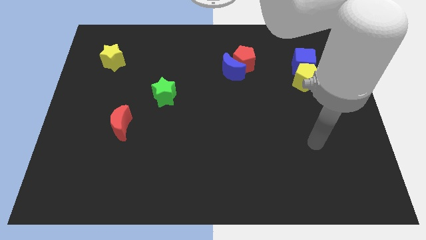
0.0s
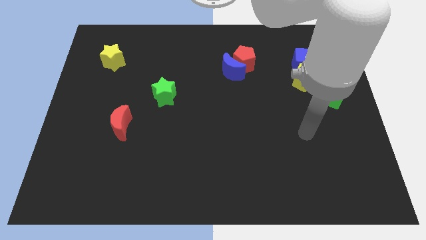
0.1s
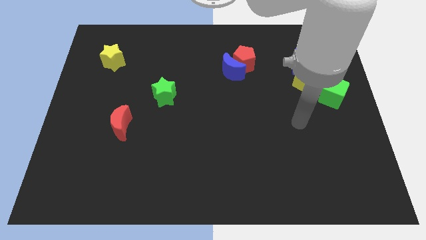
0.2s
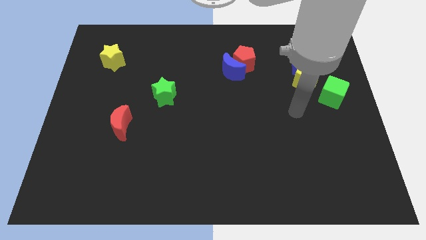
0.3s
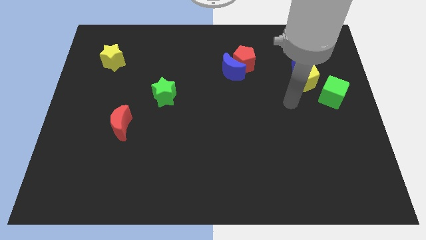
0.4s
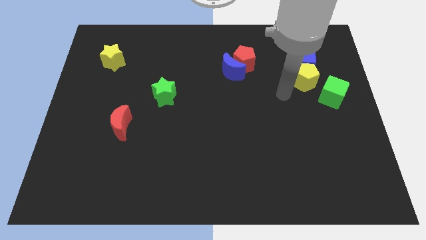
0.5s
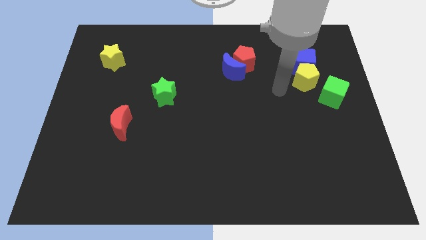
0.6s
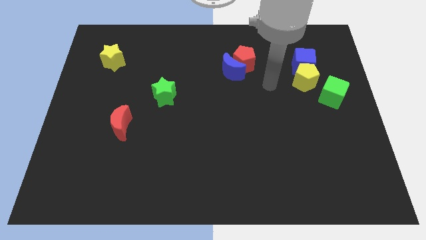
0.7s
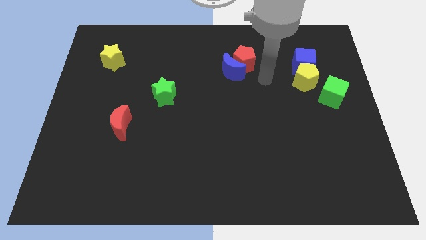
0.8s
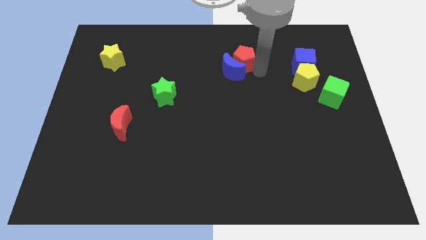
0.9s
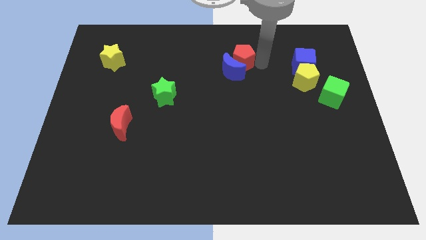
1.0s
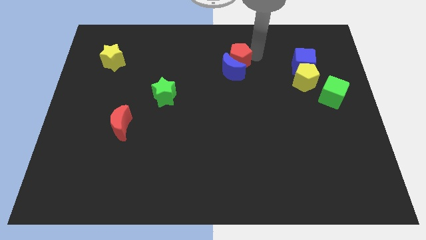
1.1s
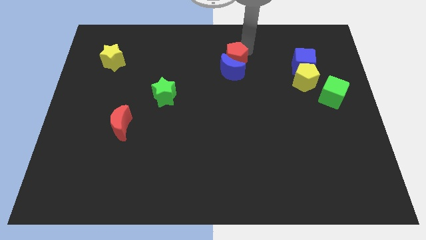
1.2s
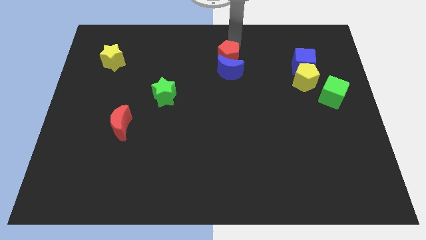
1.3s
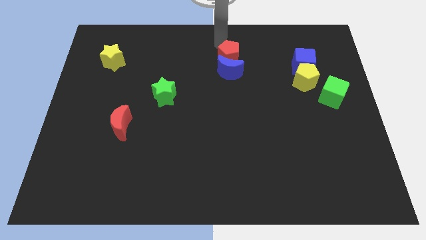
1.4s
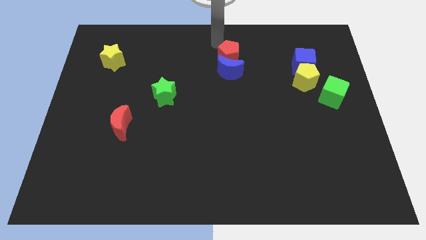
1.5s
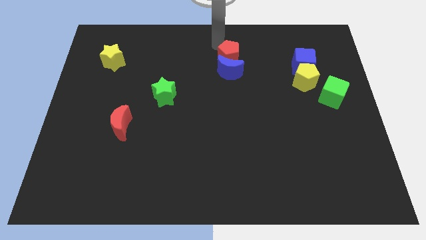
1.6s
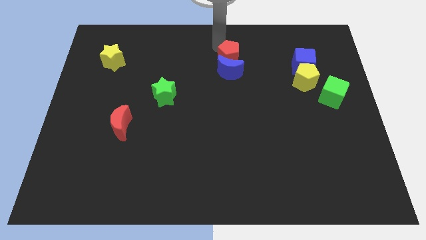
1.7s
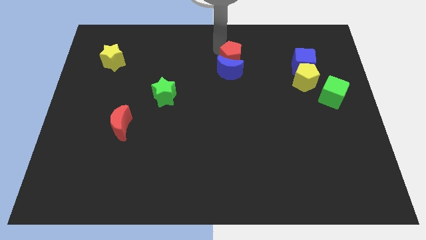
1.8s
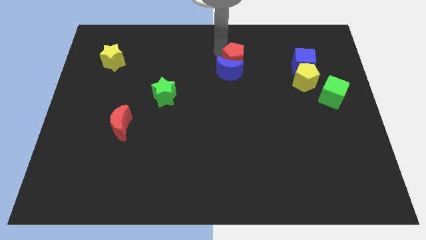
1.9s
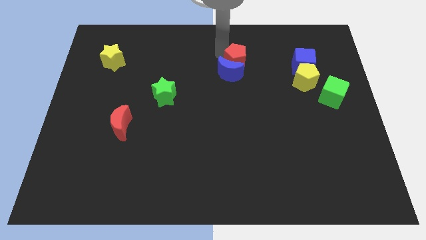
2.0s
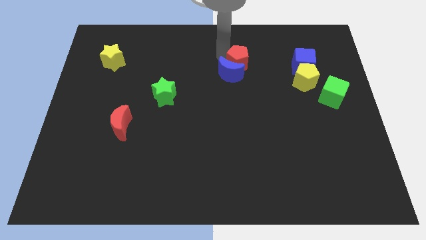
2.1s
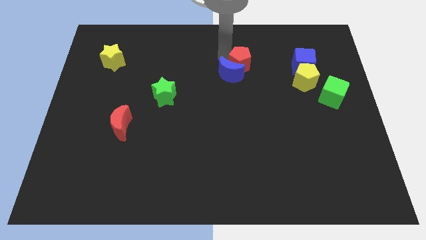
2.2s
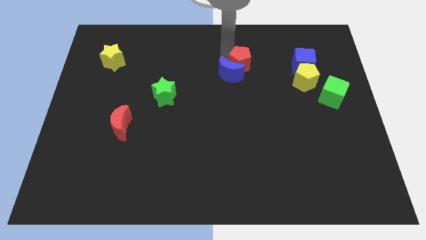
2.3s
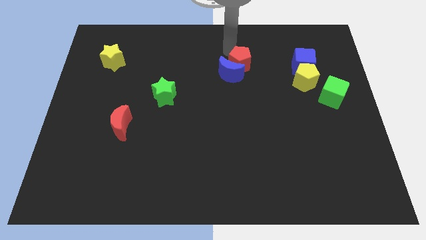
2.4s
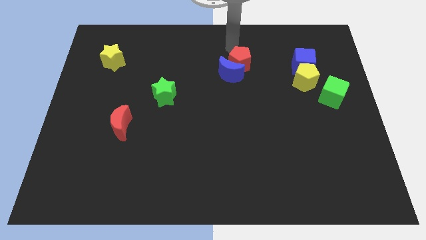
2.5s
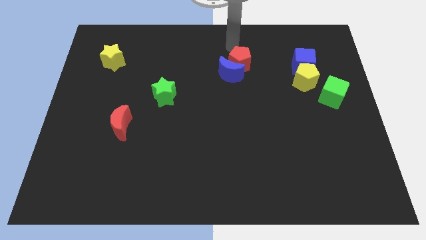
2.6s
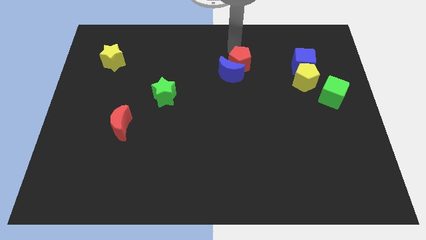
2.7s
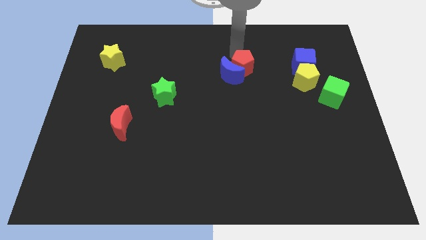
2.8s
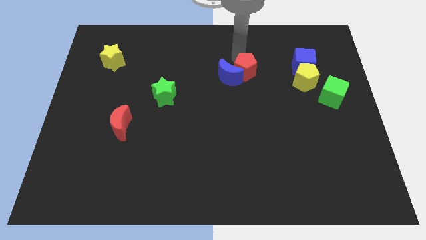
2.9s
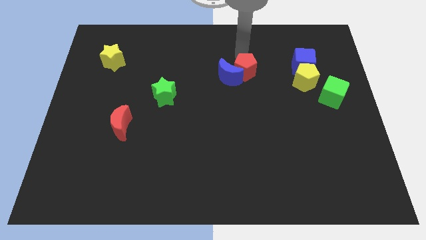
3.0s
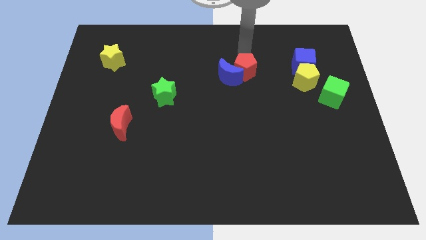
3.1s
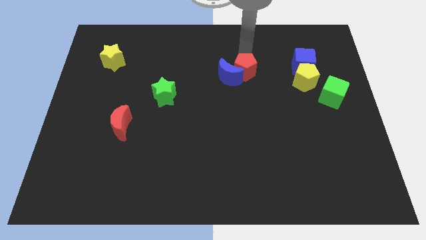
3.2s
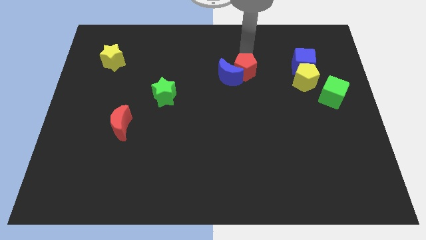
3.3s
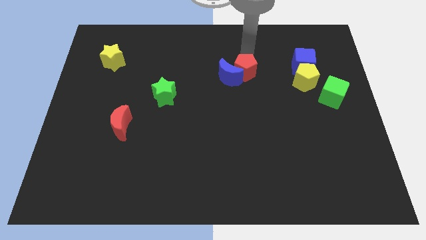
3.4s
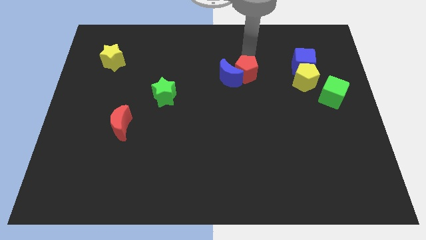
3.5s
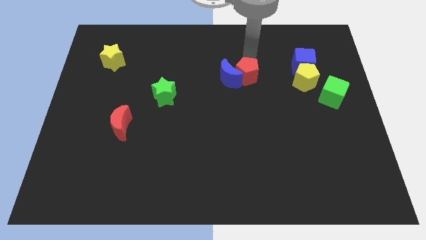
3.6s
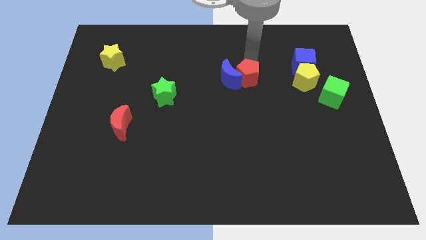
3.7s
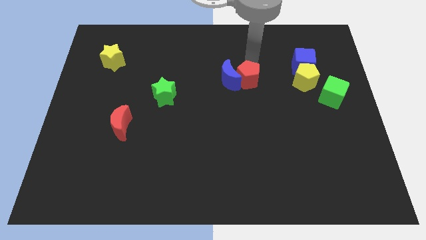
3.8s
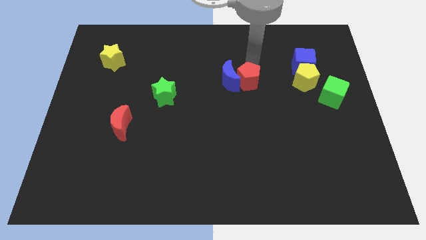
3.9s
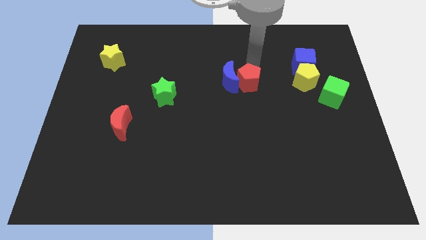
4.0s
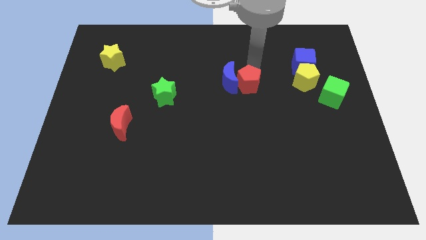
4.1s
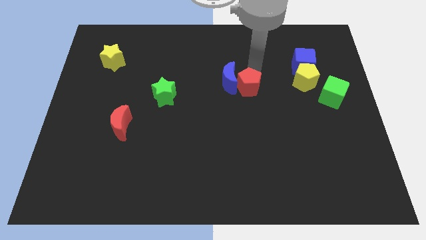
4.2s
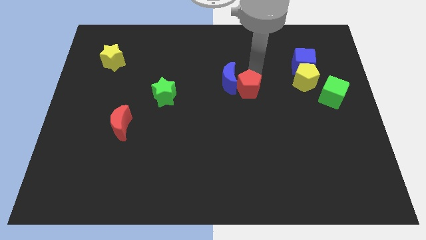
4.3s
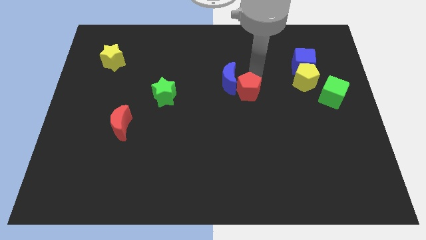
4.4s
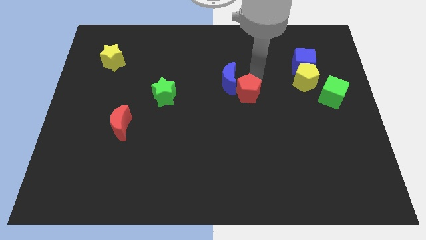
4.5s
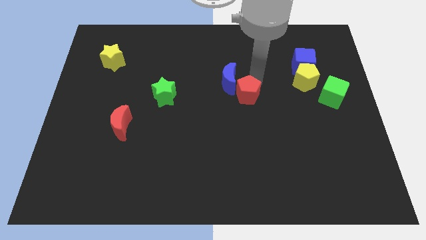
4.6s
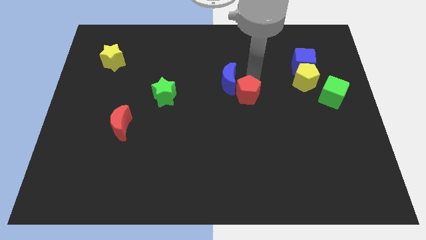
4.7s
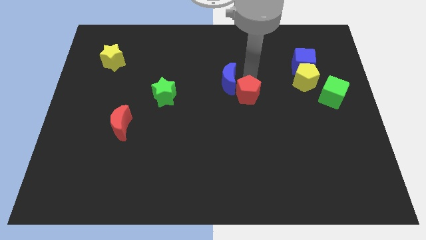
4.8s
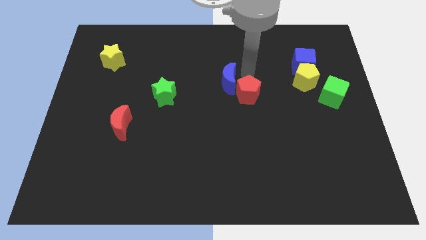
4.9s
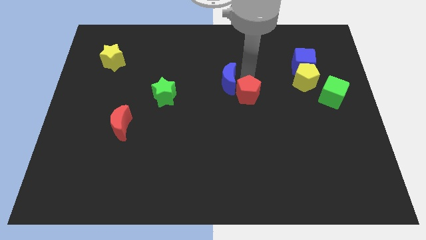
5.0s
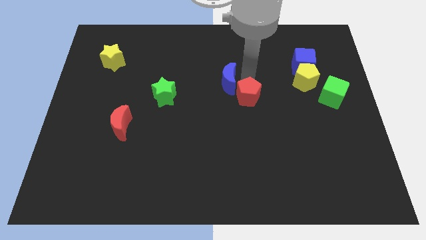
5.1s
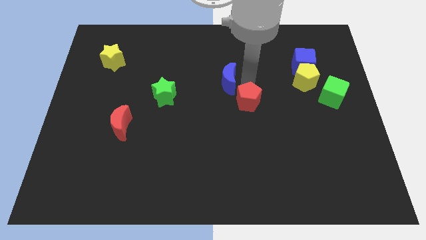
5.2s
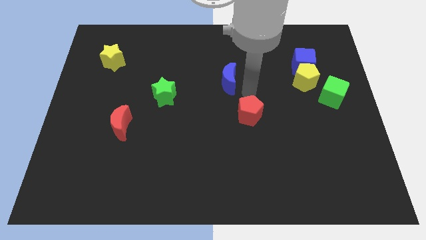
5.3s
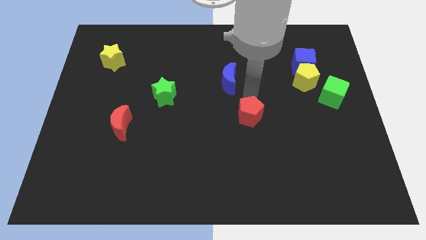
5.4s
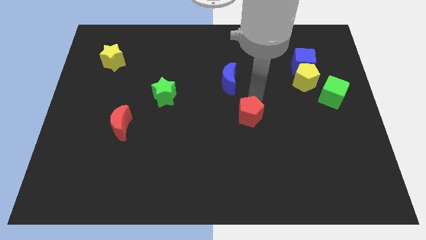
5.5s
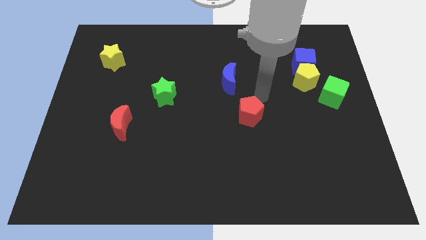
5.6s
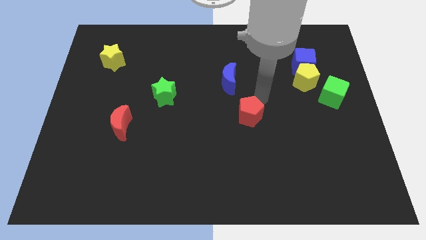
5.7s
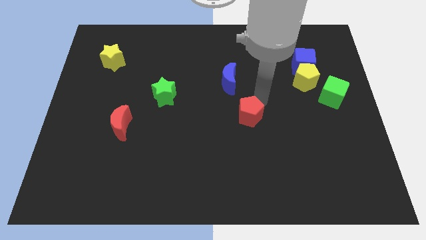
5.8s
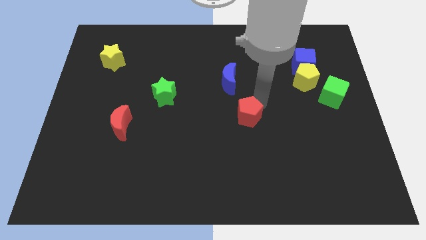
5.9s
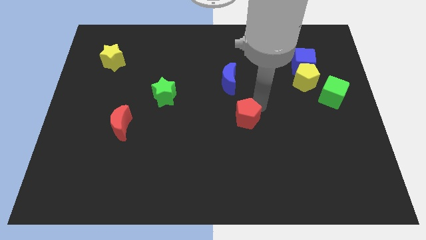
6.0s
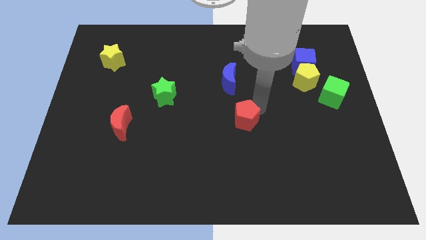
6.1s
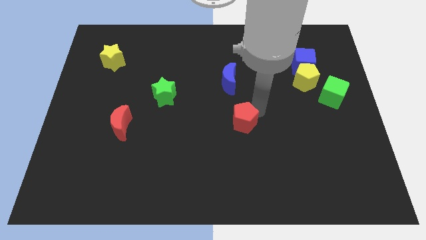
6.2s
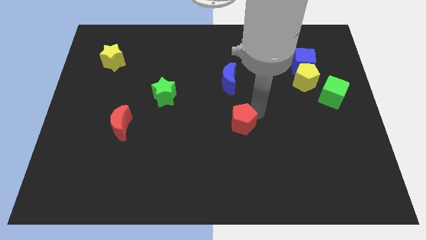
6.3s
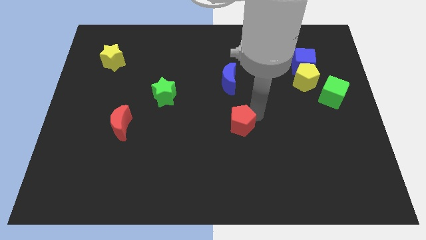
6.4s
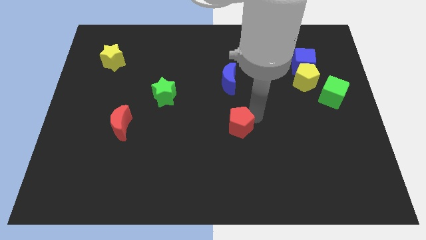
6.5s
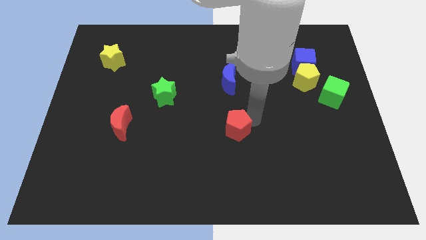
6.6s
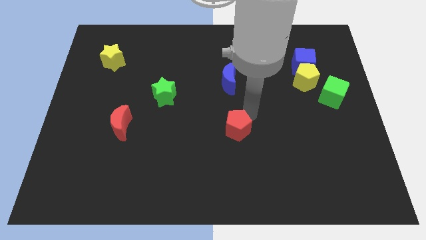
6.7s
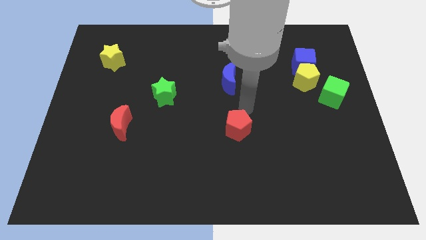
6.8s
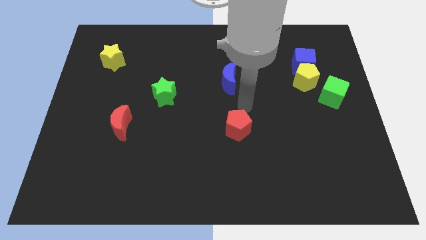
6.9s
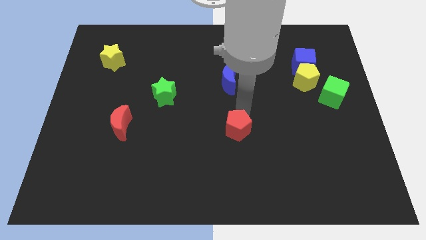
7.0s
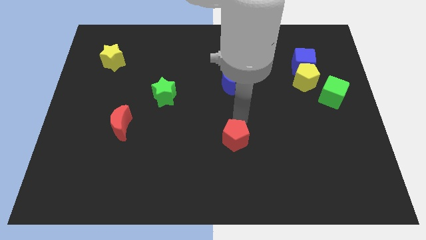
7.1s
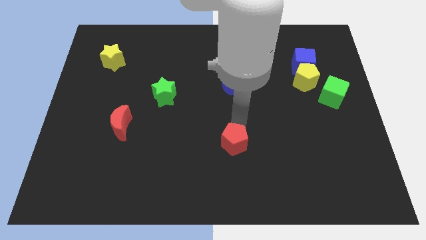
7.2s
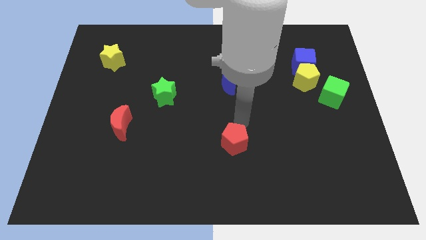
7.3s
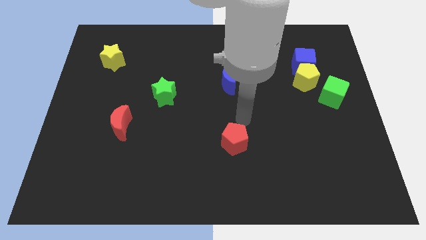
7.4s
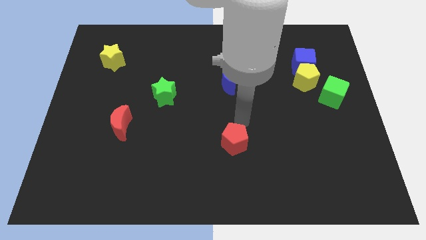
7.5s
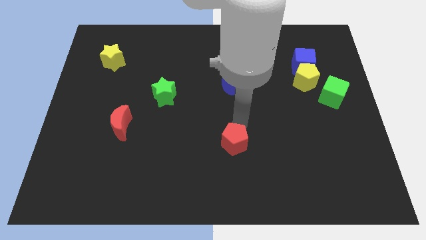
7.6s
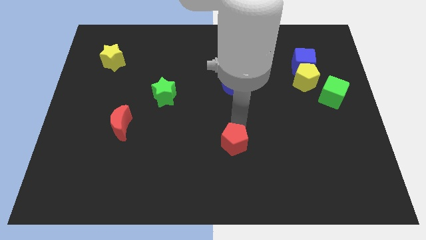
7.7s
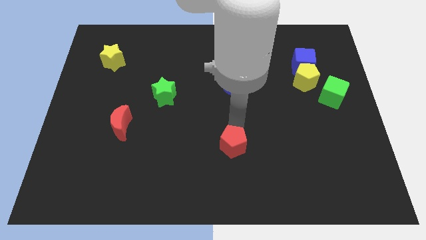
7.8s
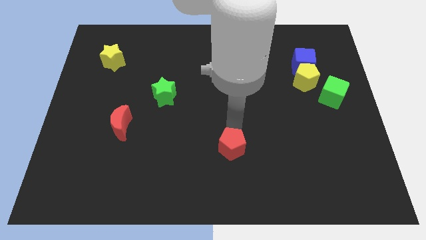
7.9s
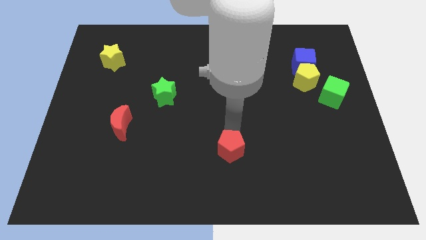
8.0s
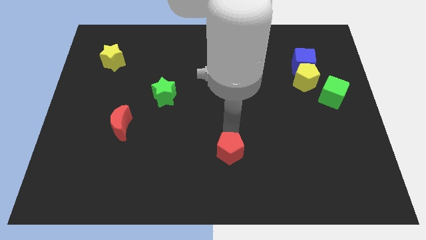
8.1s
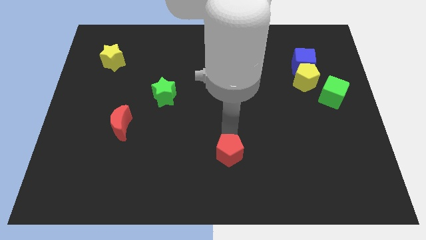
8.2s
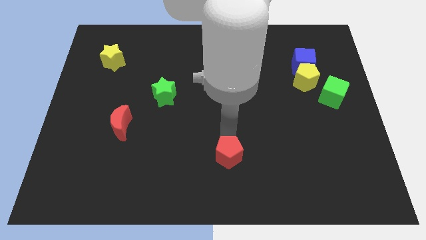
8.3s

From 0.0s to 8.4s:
put the red pentagon to the bottom side
